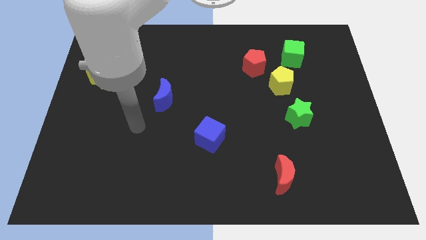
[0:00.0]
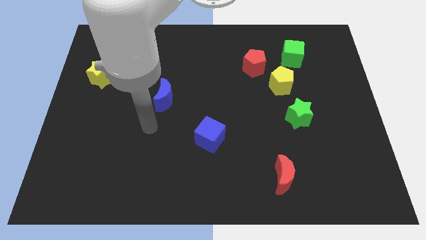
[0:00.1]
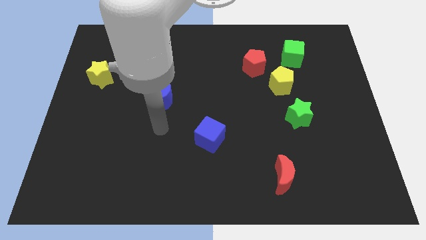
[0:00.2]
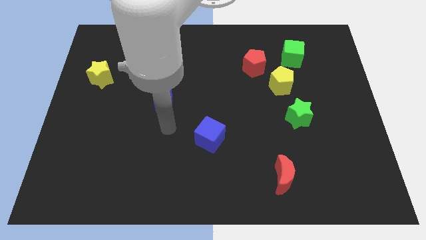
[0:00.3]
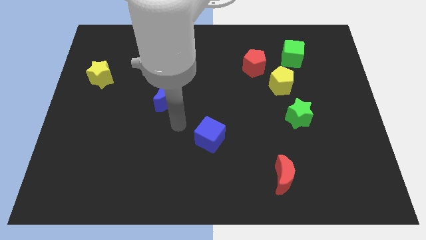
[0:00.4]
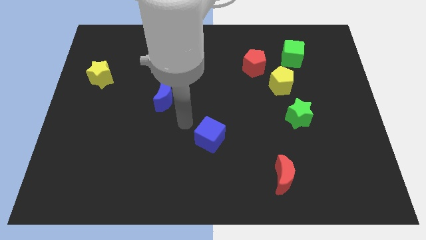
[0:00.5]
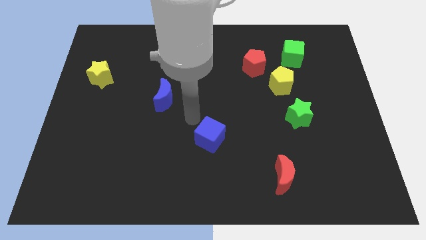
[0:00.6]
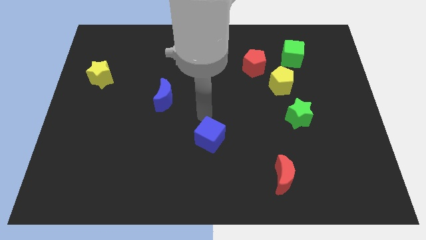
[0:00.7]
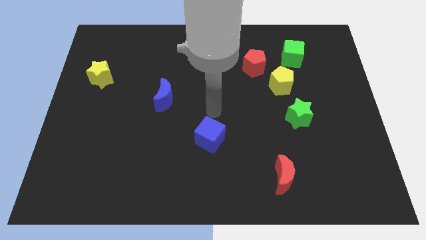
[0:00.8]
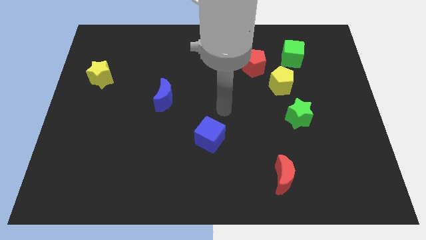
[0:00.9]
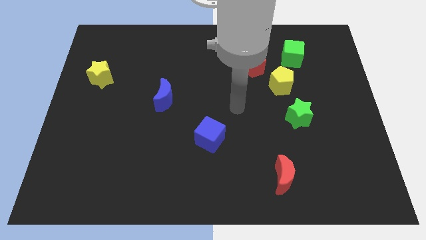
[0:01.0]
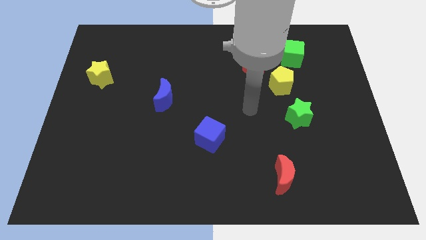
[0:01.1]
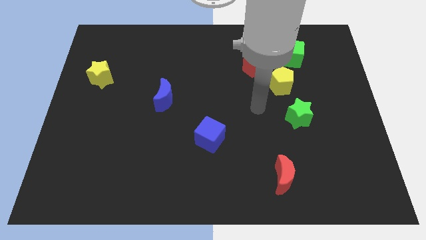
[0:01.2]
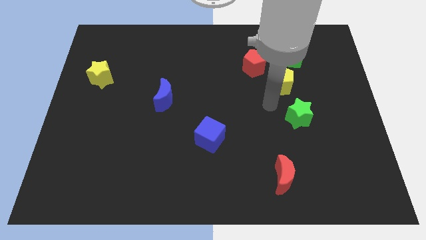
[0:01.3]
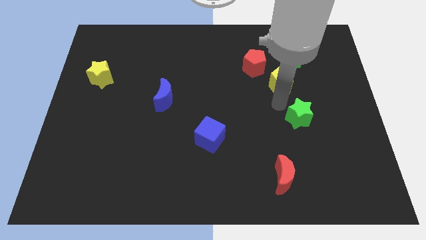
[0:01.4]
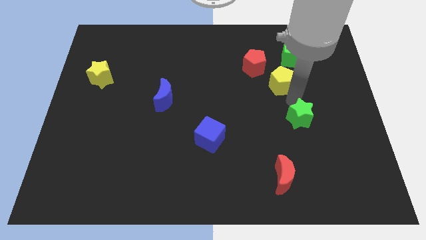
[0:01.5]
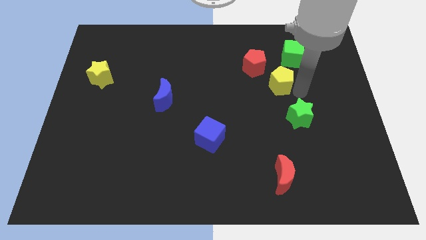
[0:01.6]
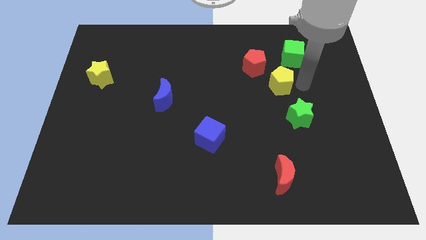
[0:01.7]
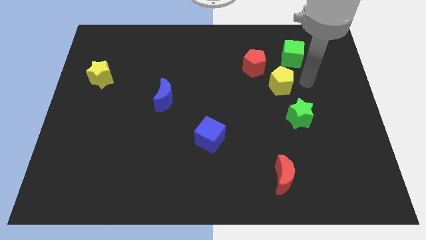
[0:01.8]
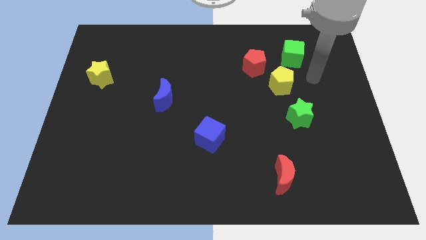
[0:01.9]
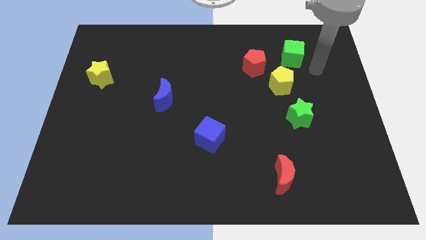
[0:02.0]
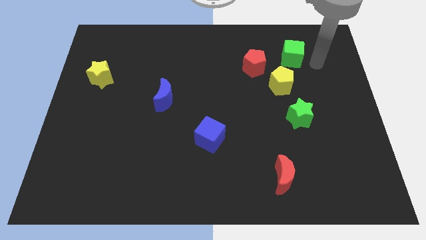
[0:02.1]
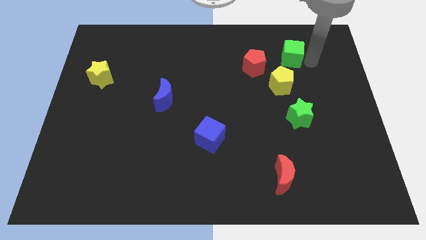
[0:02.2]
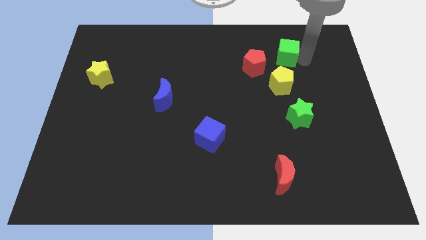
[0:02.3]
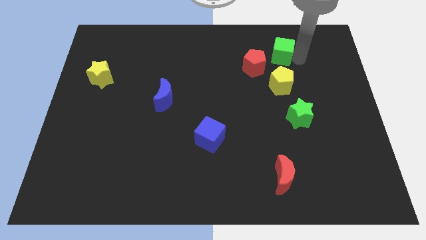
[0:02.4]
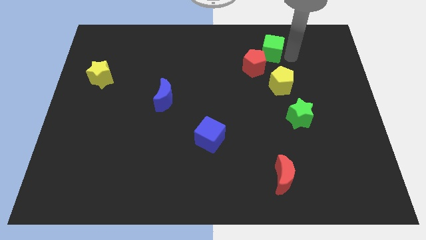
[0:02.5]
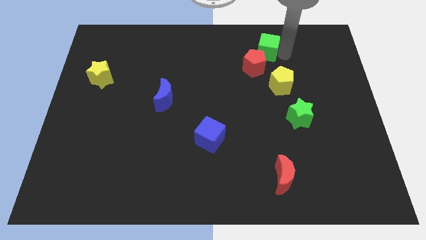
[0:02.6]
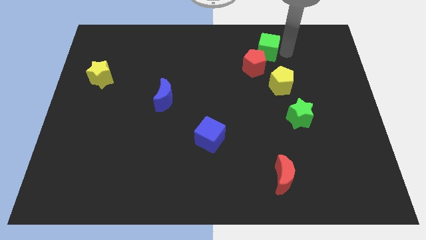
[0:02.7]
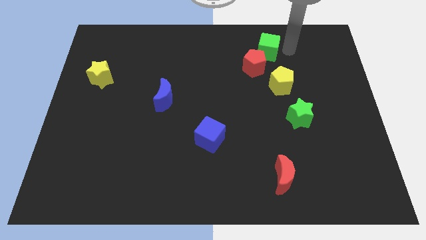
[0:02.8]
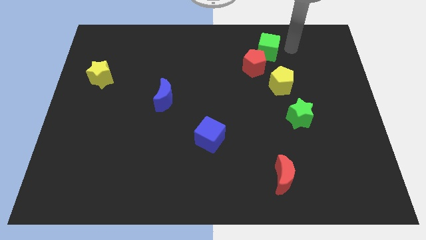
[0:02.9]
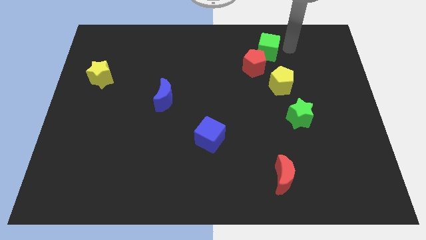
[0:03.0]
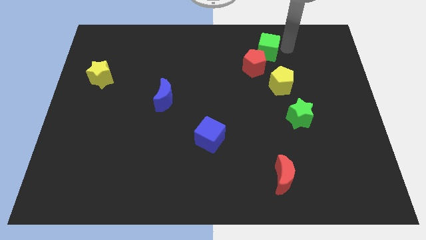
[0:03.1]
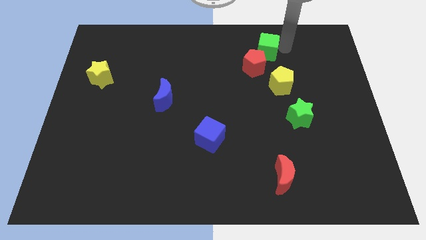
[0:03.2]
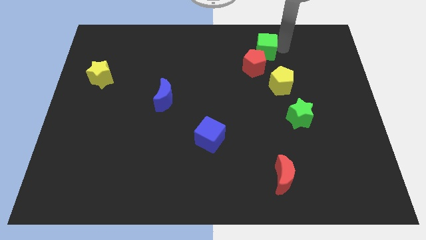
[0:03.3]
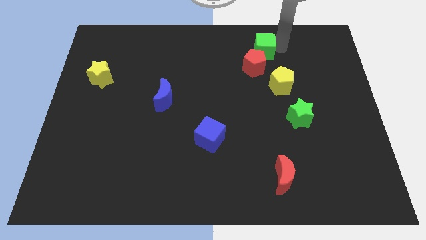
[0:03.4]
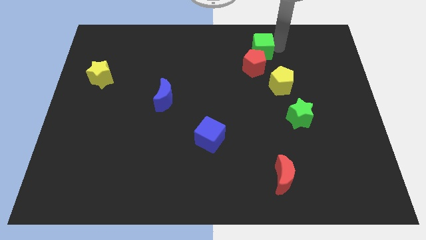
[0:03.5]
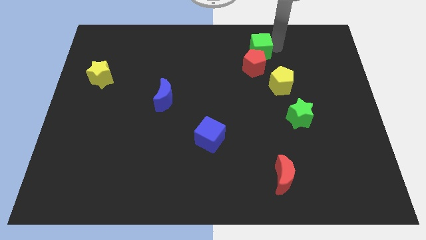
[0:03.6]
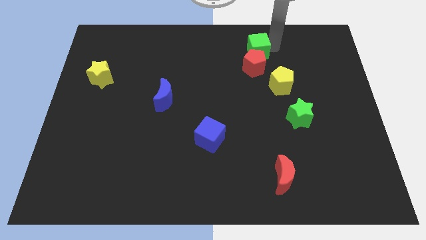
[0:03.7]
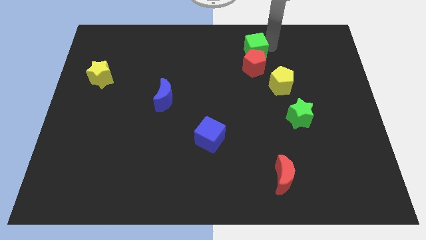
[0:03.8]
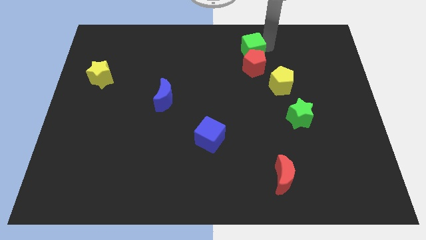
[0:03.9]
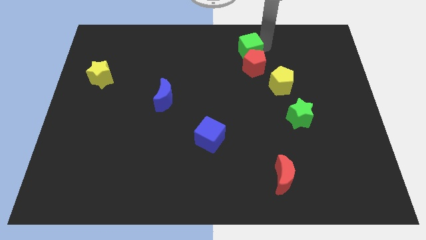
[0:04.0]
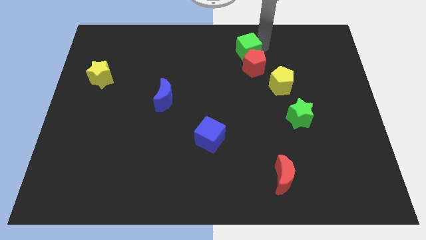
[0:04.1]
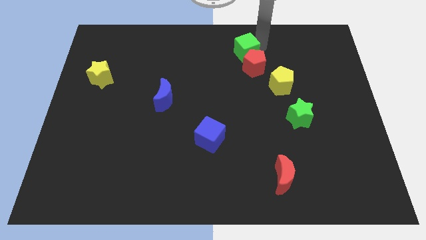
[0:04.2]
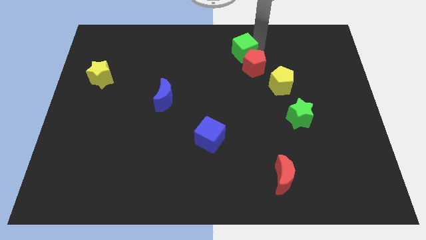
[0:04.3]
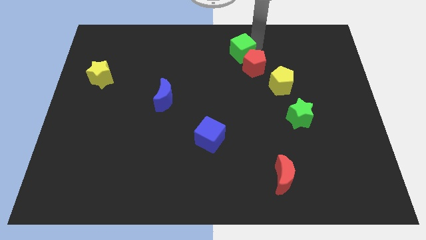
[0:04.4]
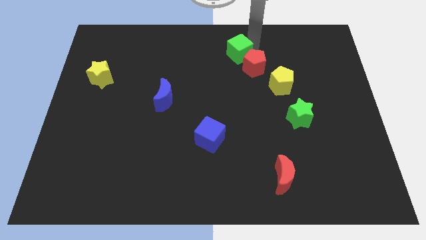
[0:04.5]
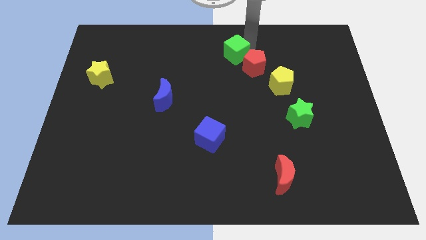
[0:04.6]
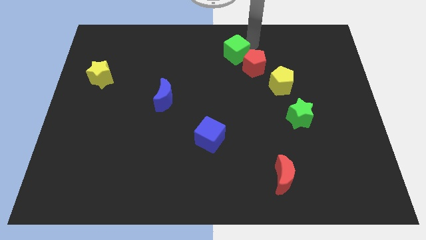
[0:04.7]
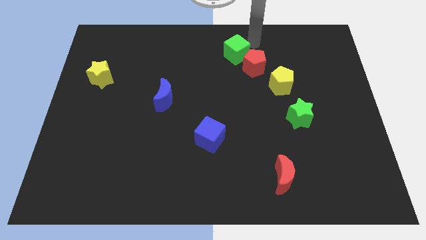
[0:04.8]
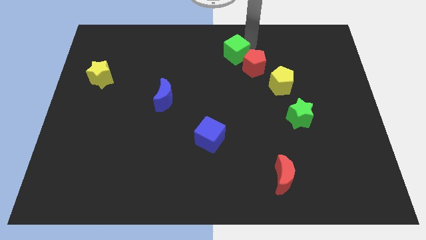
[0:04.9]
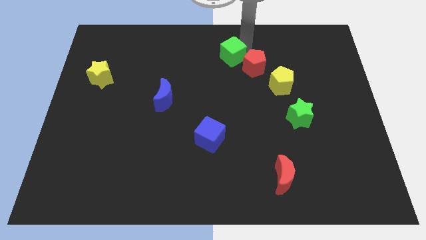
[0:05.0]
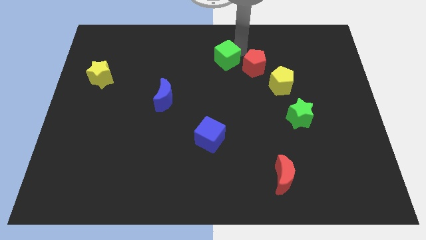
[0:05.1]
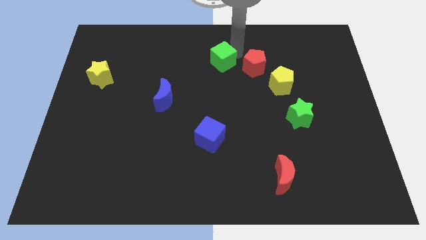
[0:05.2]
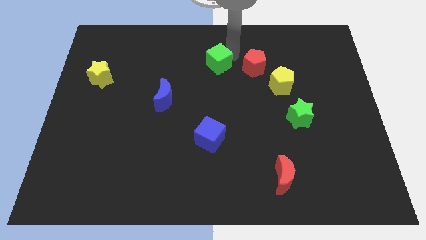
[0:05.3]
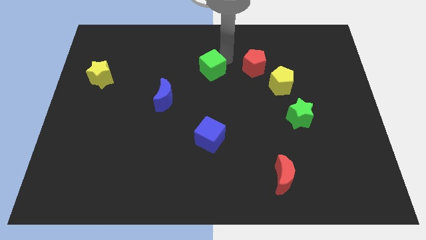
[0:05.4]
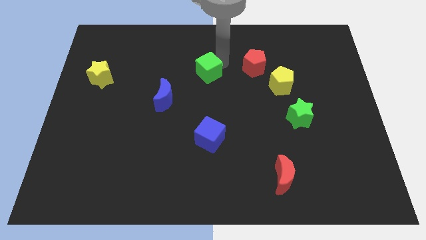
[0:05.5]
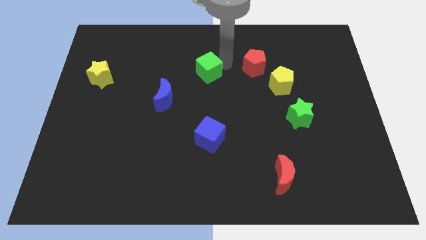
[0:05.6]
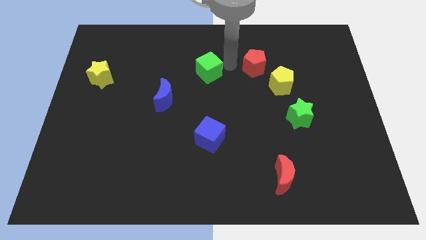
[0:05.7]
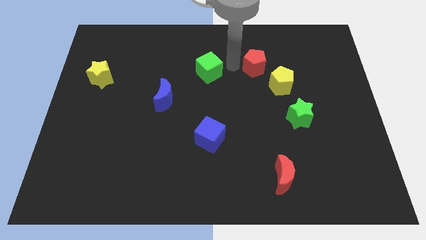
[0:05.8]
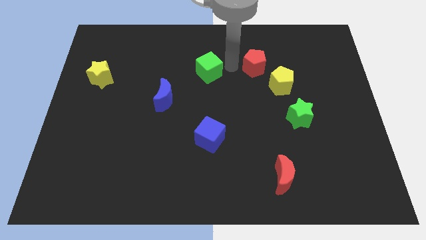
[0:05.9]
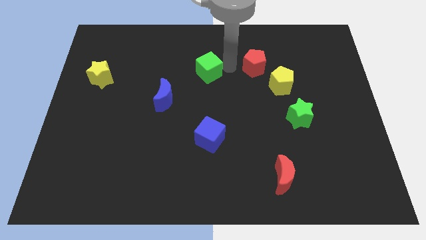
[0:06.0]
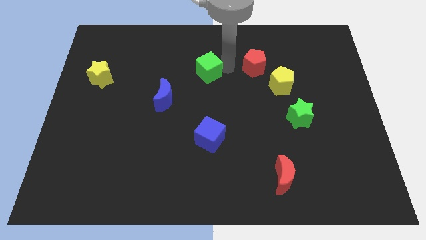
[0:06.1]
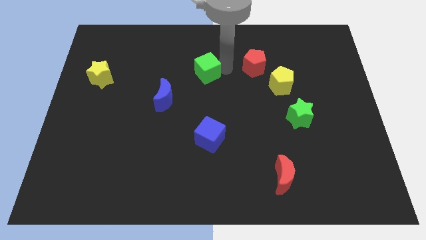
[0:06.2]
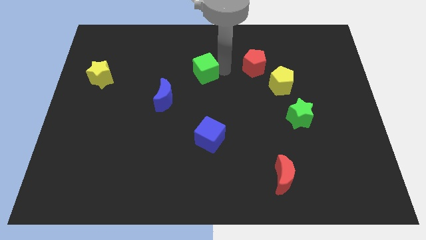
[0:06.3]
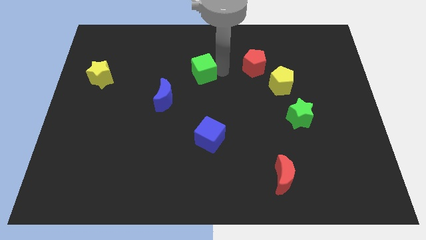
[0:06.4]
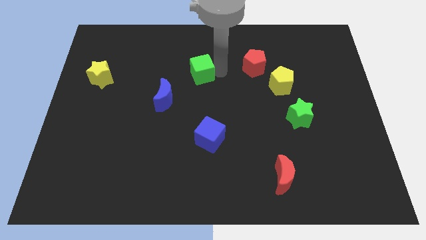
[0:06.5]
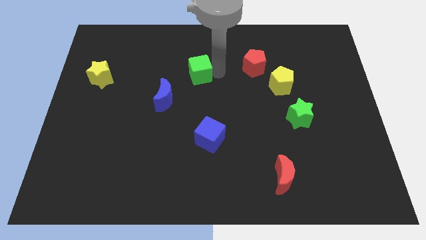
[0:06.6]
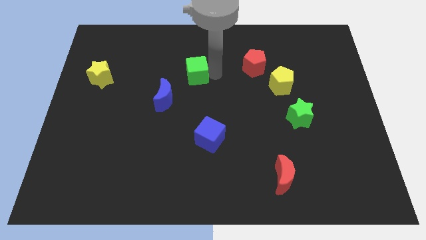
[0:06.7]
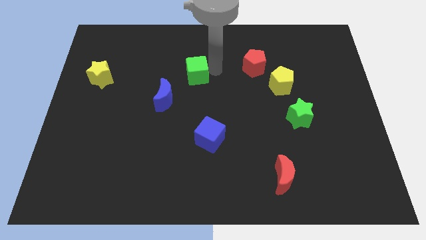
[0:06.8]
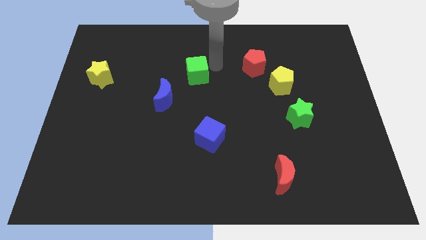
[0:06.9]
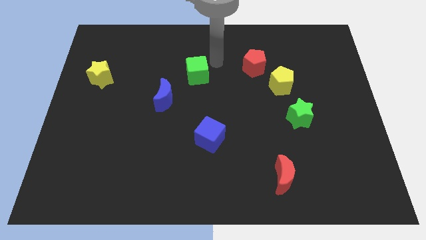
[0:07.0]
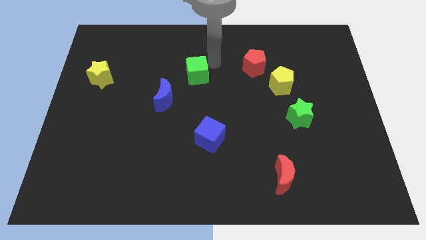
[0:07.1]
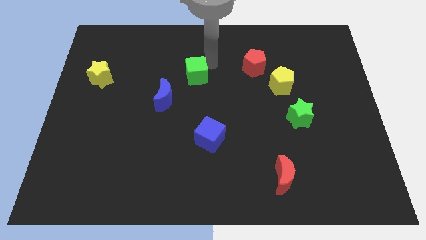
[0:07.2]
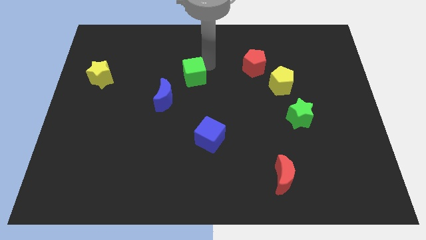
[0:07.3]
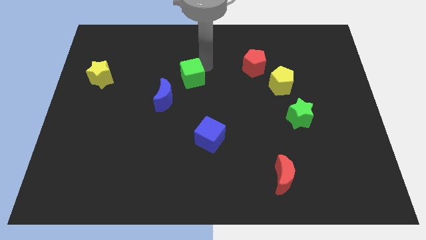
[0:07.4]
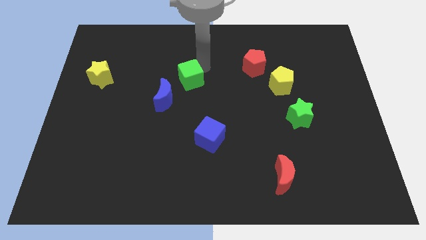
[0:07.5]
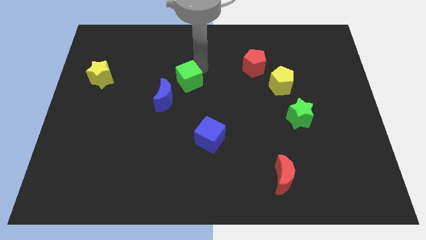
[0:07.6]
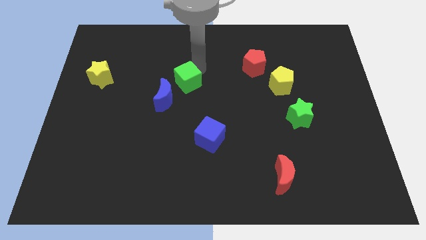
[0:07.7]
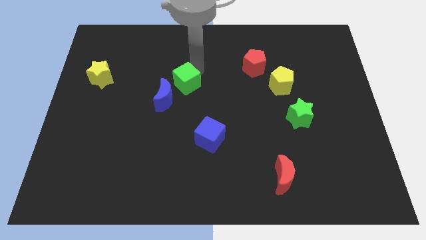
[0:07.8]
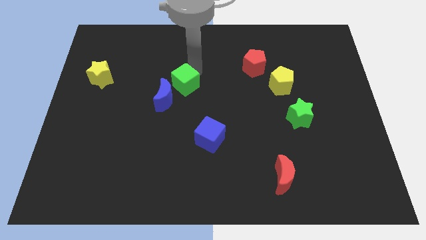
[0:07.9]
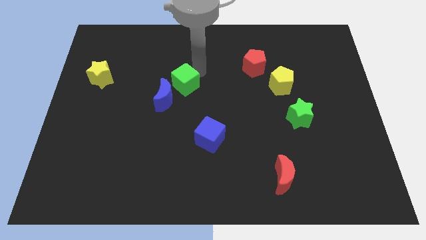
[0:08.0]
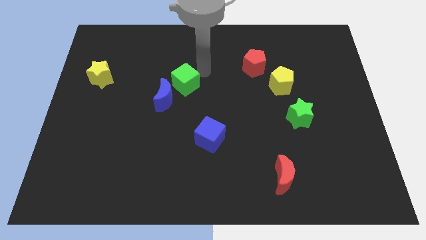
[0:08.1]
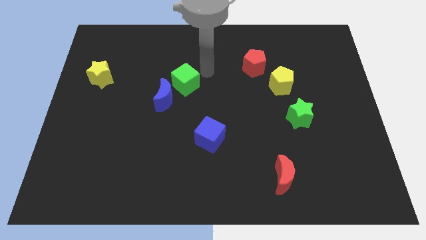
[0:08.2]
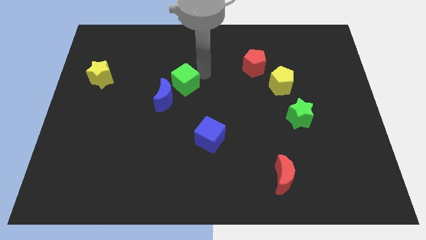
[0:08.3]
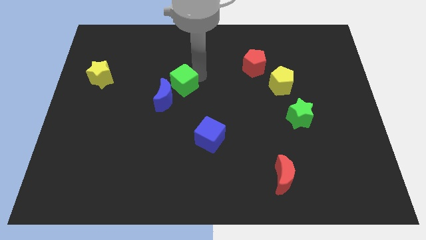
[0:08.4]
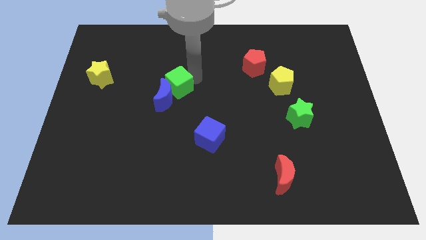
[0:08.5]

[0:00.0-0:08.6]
push the green cube next to the blue moon

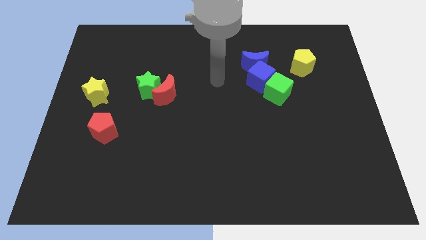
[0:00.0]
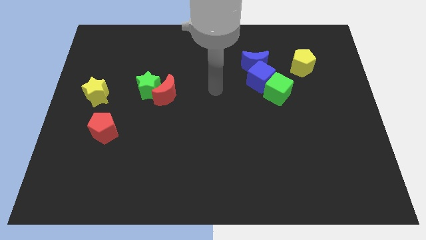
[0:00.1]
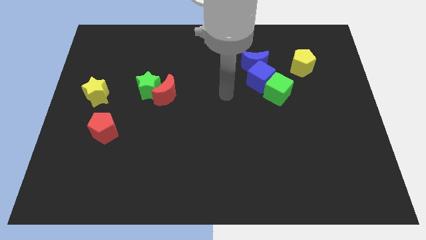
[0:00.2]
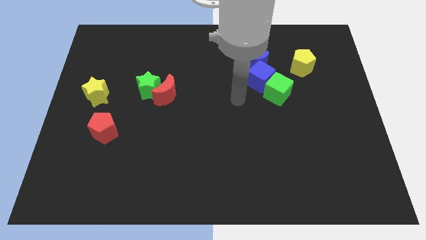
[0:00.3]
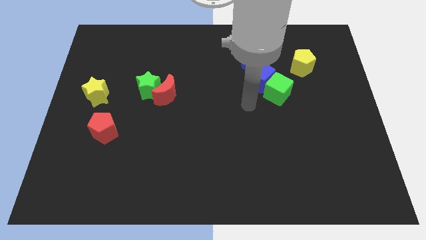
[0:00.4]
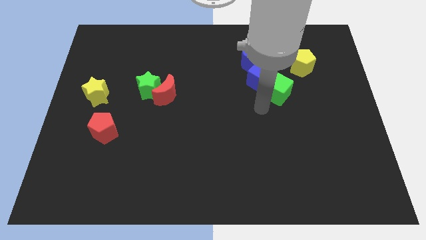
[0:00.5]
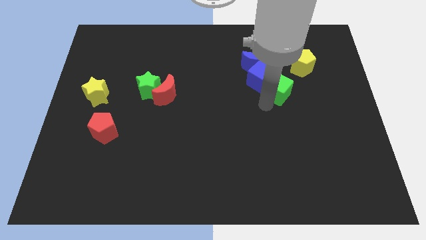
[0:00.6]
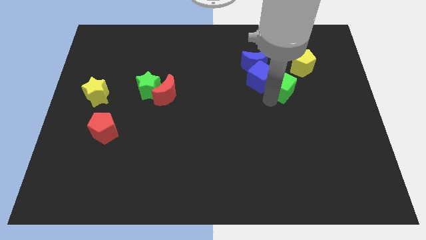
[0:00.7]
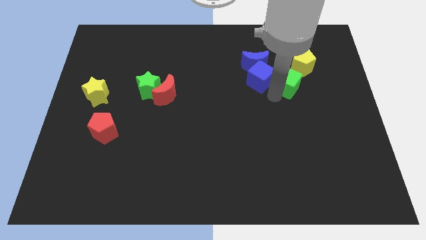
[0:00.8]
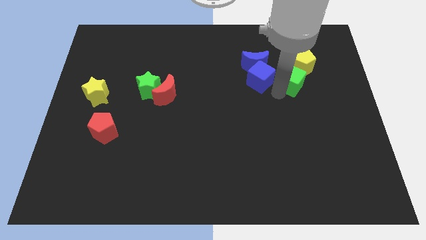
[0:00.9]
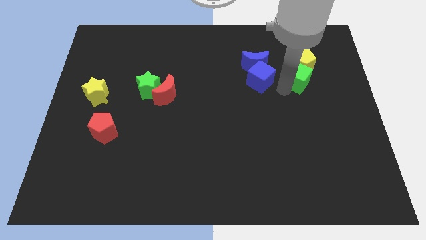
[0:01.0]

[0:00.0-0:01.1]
move the green cube next to the yellow pentagon
